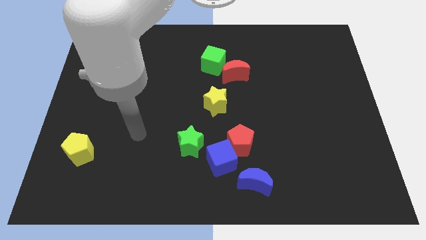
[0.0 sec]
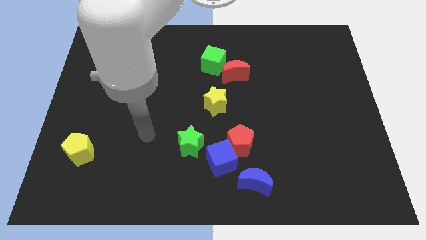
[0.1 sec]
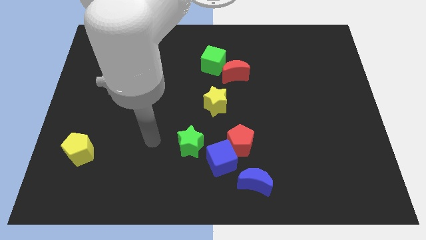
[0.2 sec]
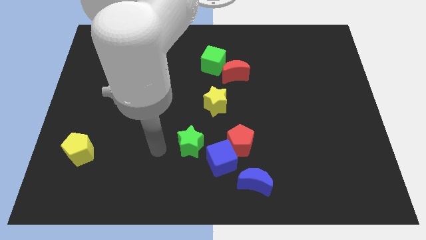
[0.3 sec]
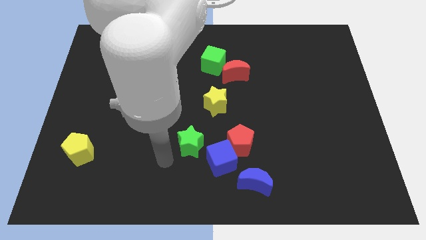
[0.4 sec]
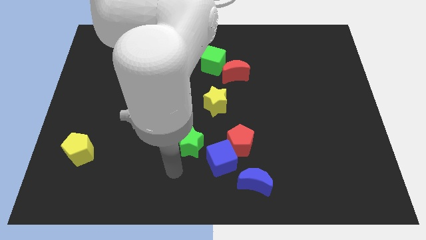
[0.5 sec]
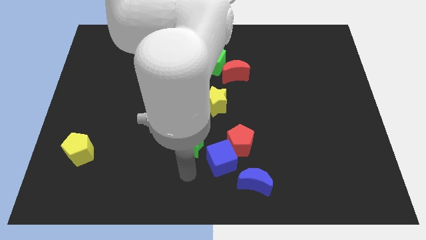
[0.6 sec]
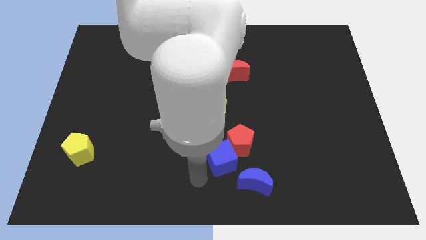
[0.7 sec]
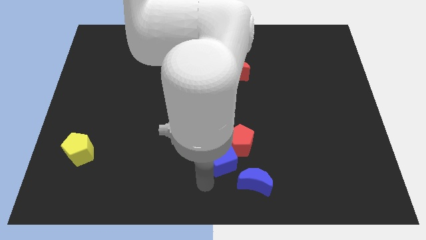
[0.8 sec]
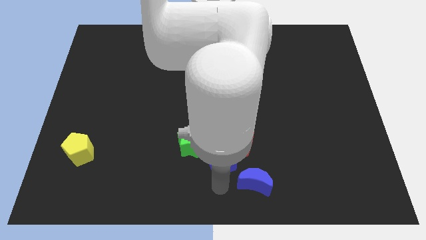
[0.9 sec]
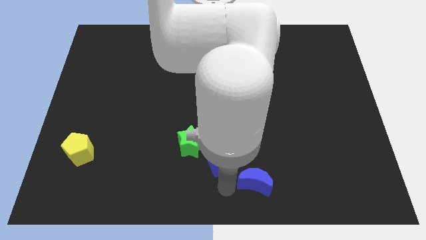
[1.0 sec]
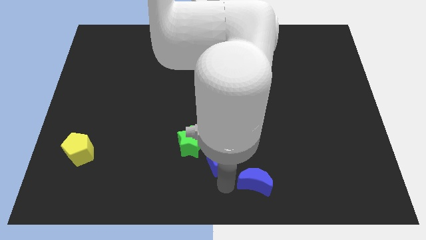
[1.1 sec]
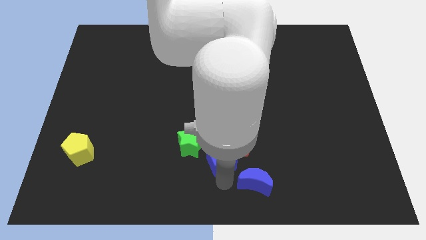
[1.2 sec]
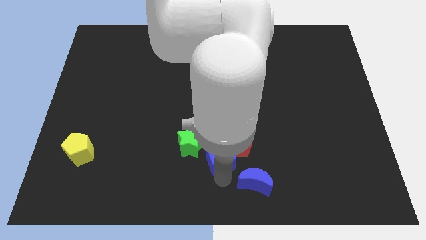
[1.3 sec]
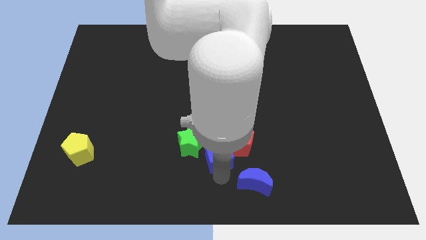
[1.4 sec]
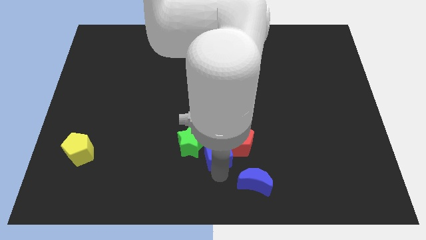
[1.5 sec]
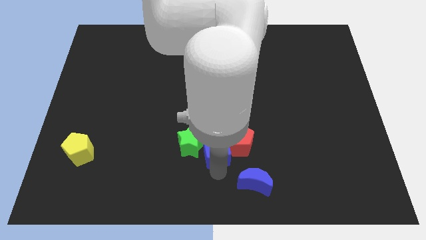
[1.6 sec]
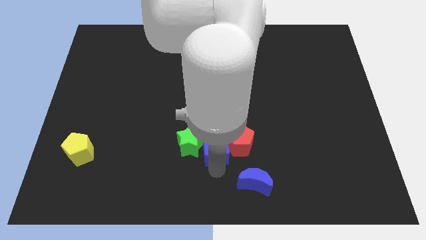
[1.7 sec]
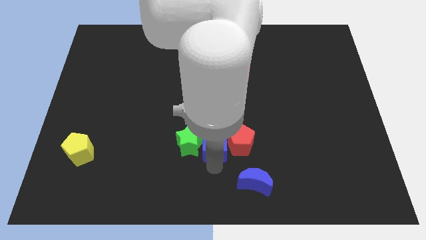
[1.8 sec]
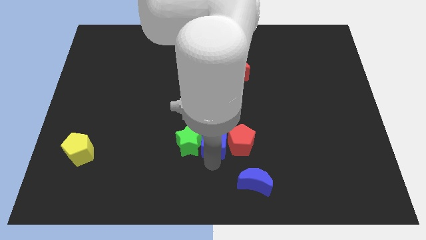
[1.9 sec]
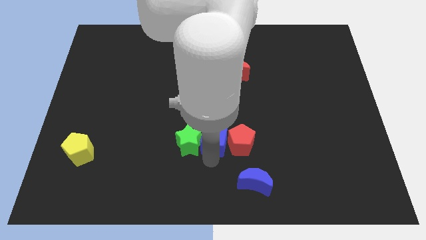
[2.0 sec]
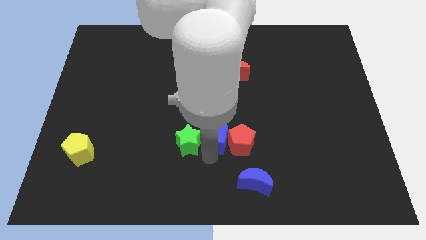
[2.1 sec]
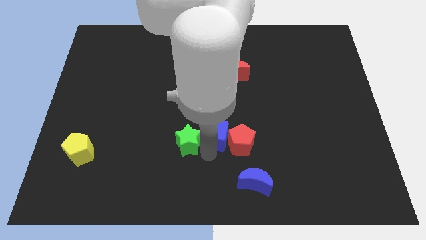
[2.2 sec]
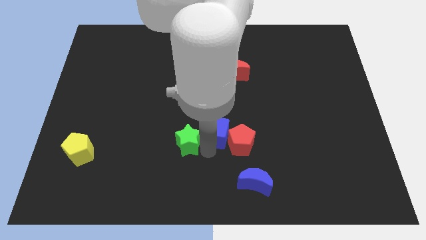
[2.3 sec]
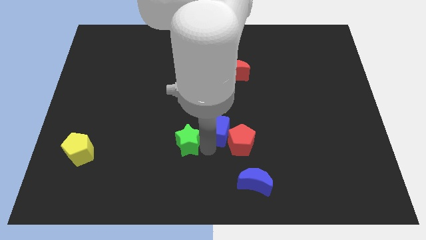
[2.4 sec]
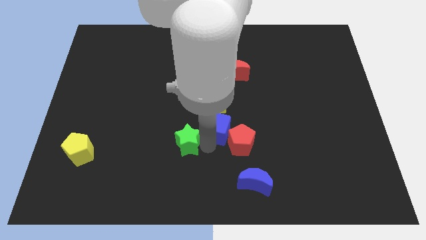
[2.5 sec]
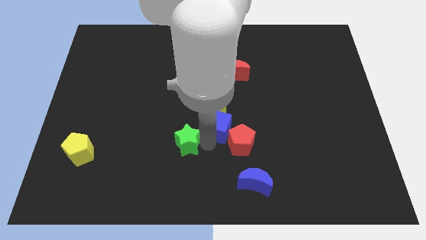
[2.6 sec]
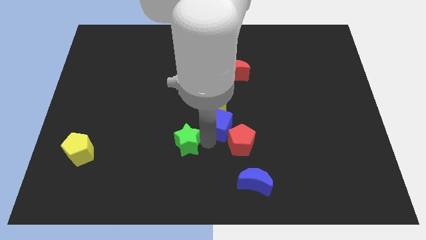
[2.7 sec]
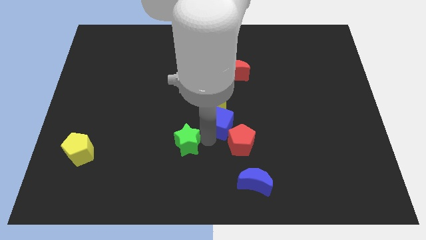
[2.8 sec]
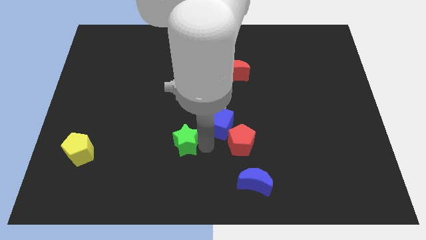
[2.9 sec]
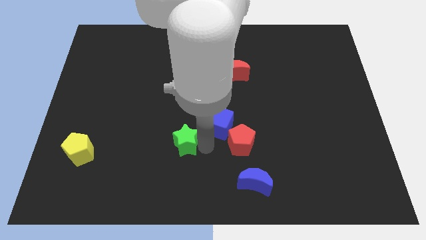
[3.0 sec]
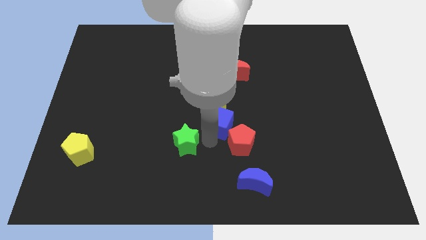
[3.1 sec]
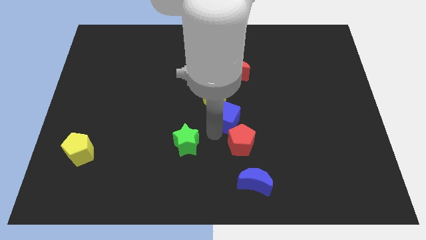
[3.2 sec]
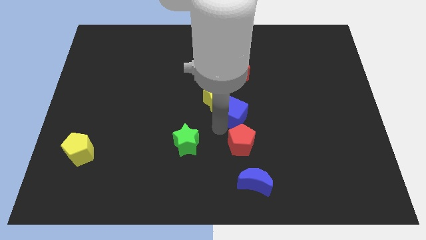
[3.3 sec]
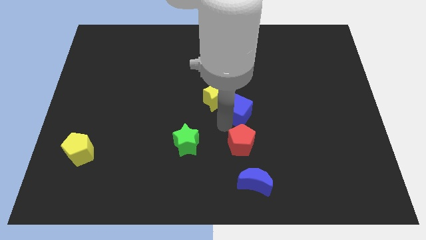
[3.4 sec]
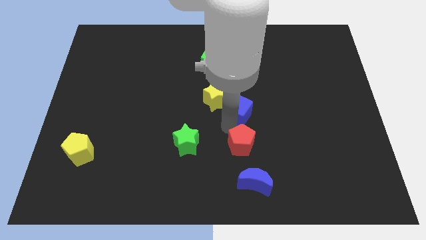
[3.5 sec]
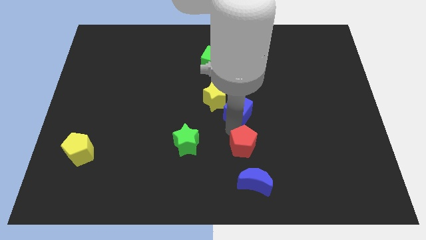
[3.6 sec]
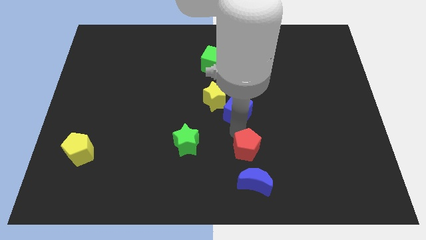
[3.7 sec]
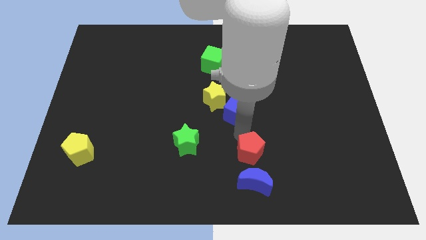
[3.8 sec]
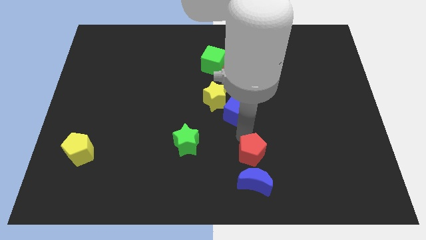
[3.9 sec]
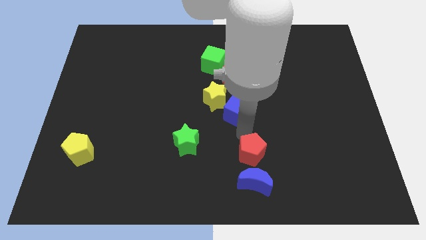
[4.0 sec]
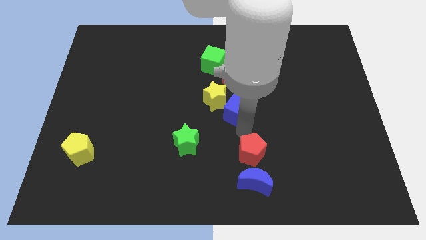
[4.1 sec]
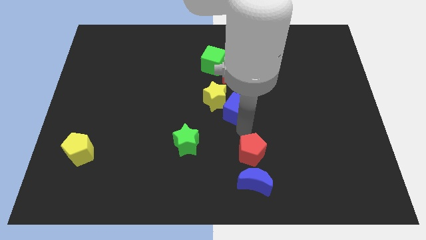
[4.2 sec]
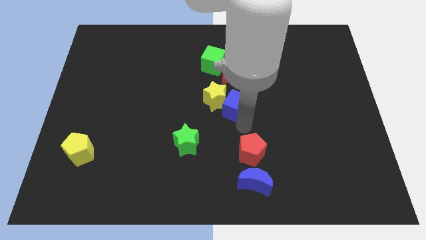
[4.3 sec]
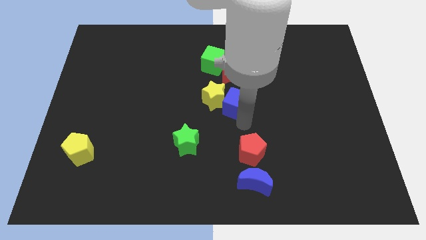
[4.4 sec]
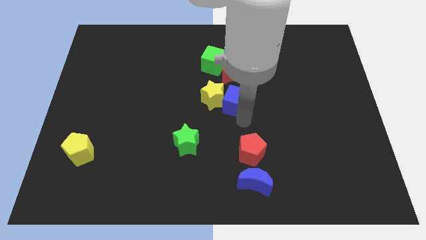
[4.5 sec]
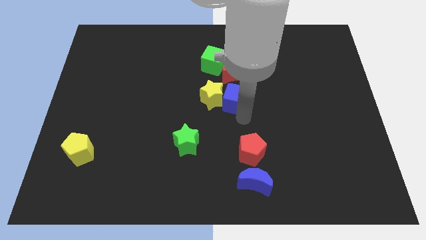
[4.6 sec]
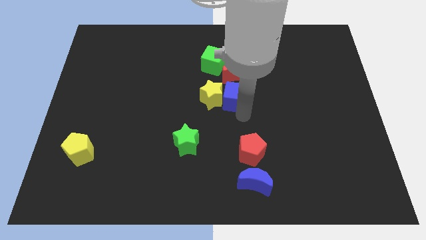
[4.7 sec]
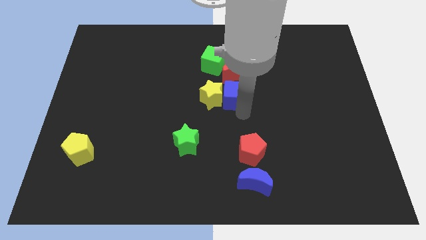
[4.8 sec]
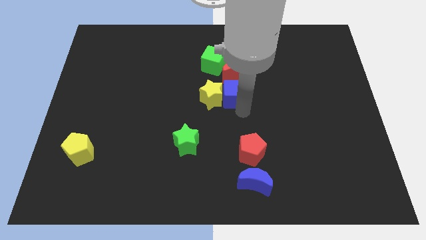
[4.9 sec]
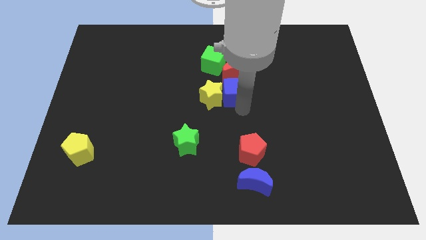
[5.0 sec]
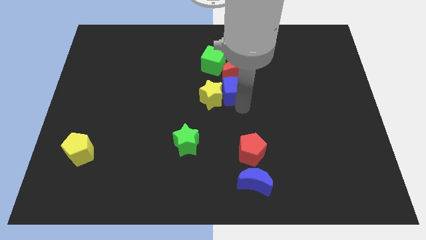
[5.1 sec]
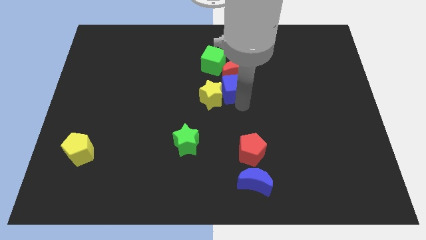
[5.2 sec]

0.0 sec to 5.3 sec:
put the blue cube close to the red moon

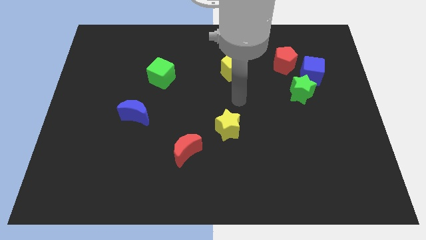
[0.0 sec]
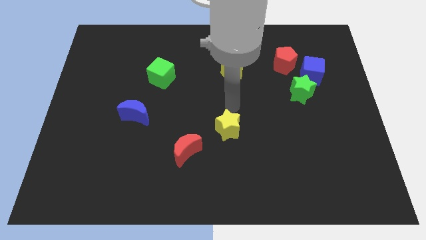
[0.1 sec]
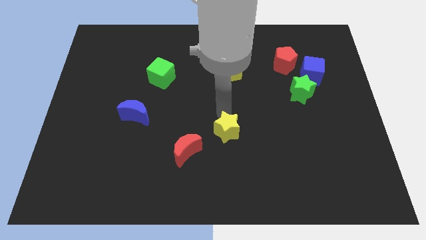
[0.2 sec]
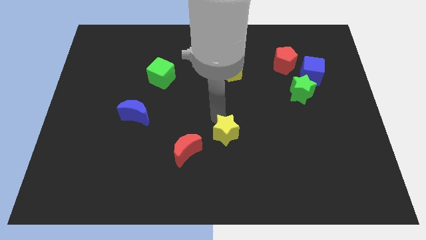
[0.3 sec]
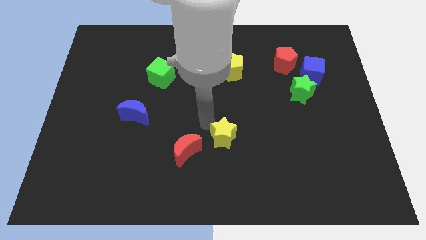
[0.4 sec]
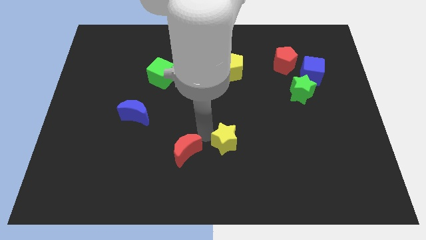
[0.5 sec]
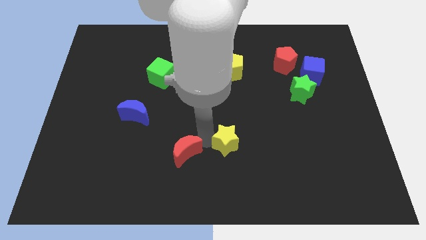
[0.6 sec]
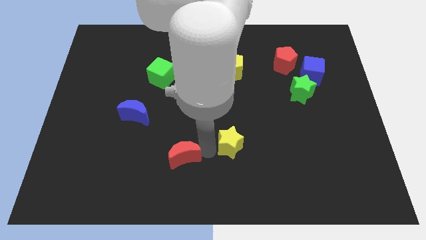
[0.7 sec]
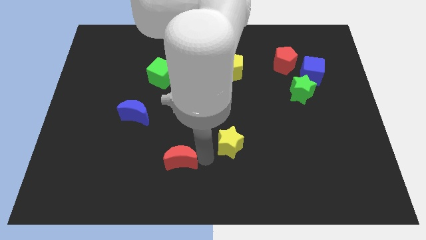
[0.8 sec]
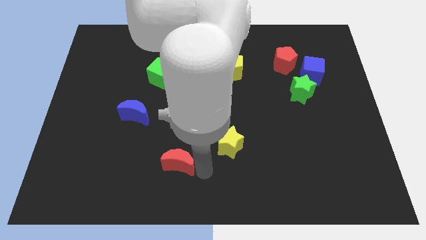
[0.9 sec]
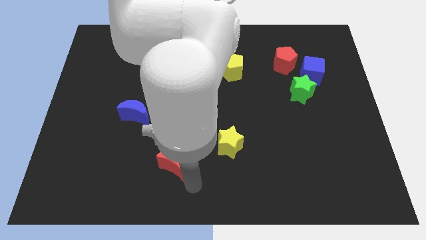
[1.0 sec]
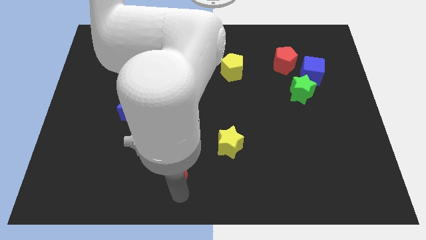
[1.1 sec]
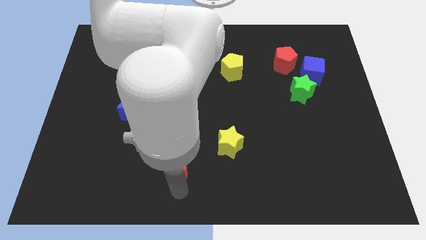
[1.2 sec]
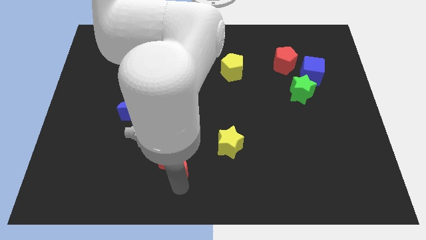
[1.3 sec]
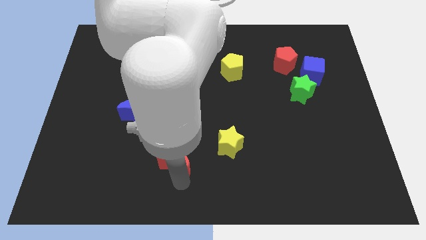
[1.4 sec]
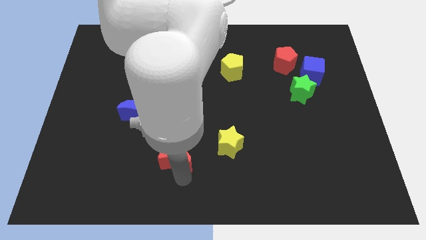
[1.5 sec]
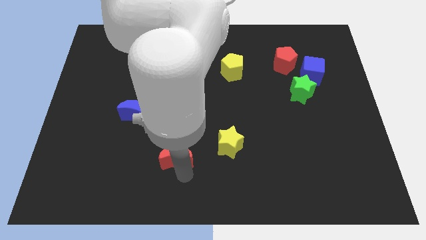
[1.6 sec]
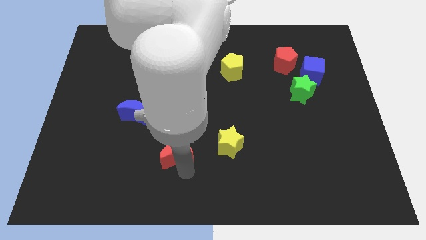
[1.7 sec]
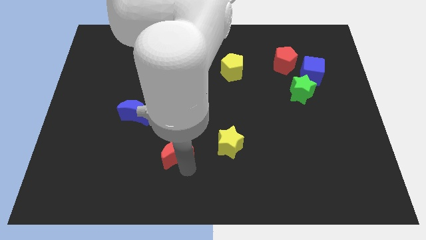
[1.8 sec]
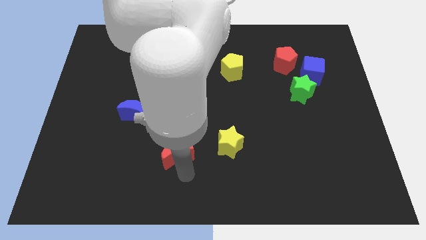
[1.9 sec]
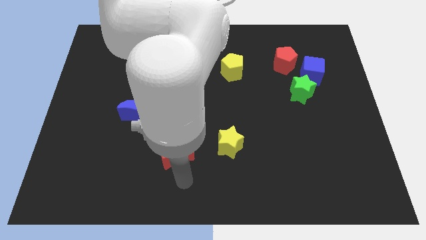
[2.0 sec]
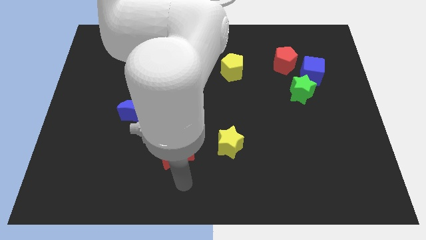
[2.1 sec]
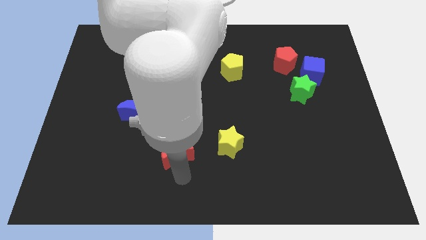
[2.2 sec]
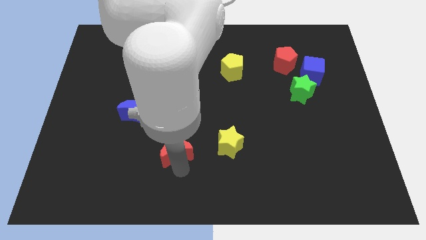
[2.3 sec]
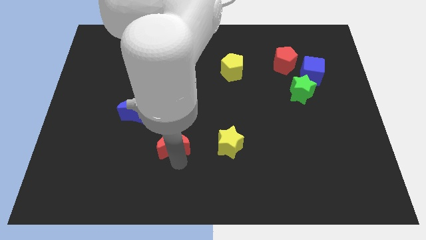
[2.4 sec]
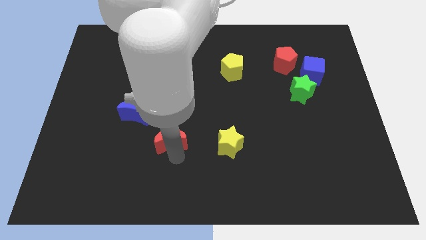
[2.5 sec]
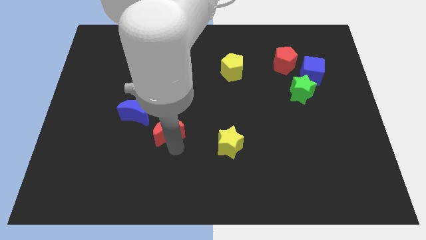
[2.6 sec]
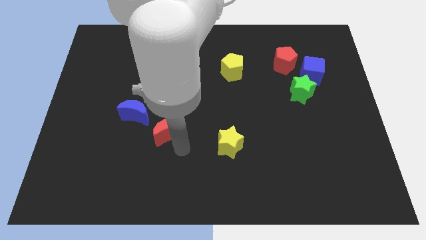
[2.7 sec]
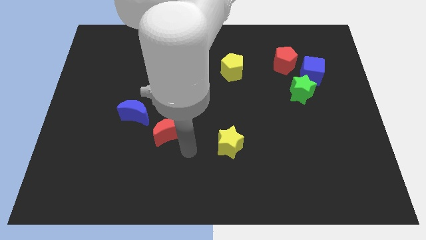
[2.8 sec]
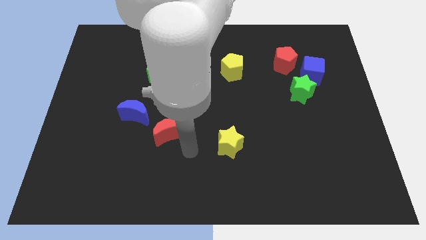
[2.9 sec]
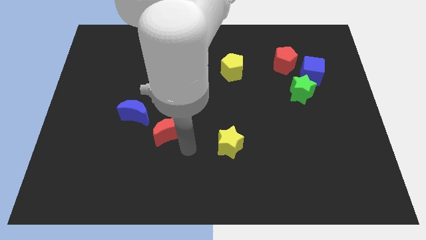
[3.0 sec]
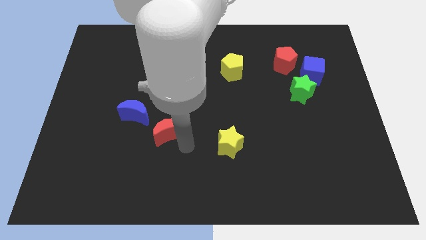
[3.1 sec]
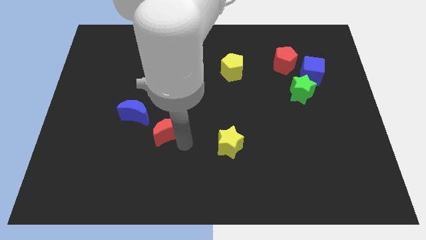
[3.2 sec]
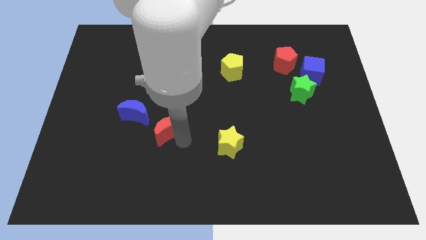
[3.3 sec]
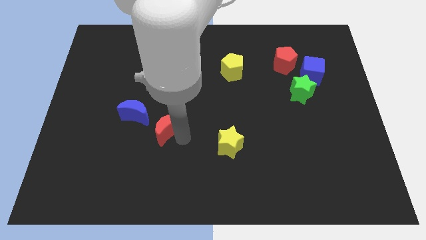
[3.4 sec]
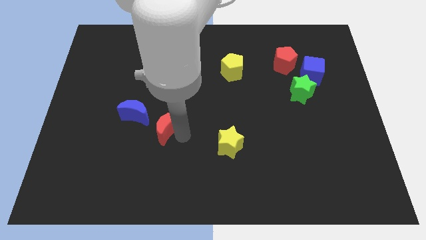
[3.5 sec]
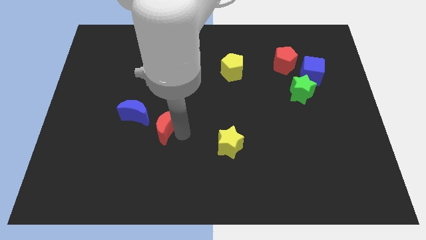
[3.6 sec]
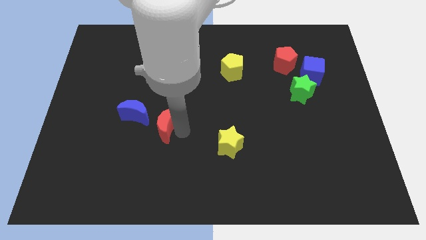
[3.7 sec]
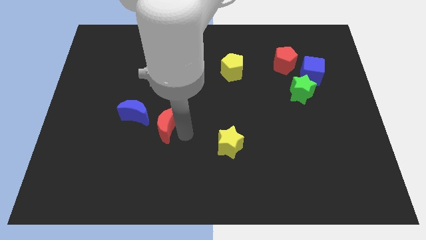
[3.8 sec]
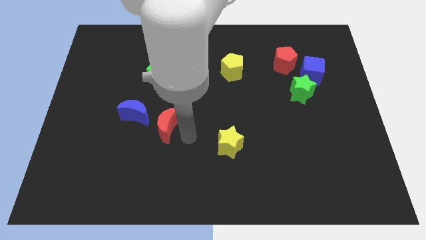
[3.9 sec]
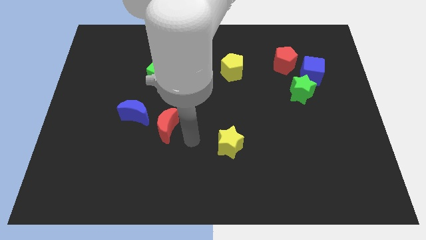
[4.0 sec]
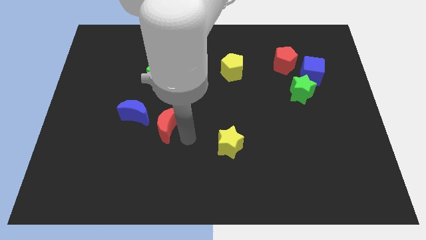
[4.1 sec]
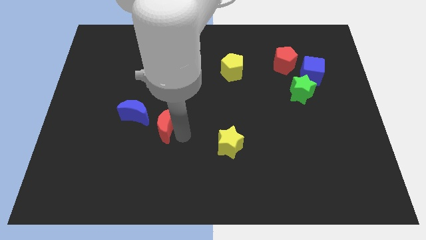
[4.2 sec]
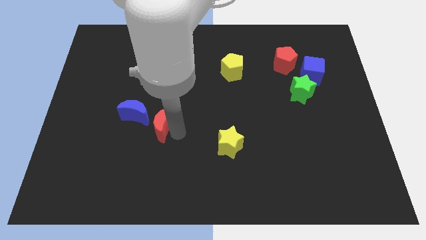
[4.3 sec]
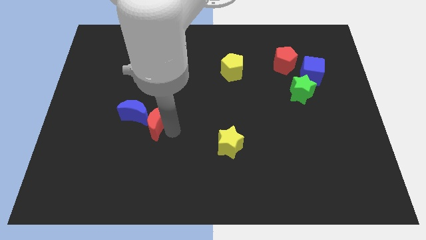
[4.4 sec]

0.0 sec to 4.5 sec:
put the red moon close to the blue moon
